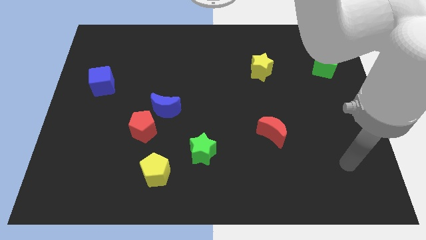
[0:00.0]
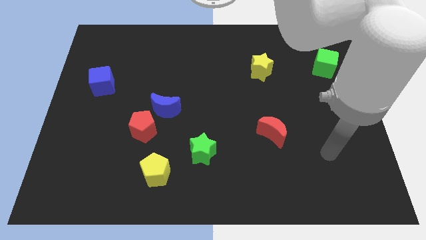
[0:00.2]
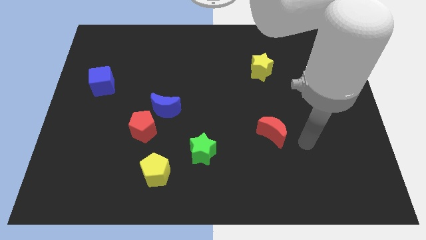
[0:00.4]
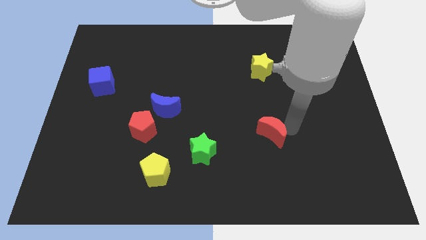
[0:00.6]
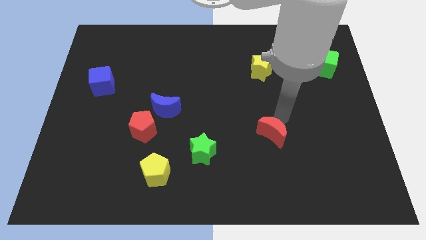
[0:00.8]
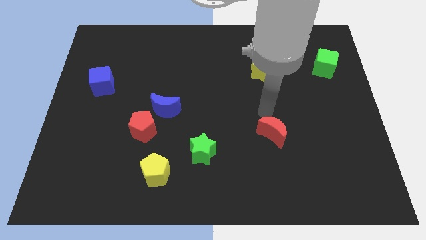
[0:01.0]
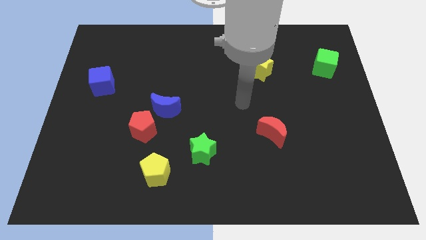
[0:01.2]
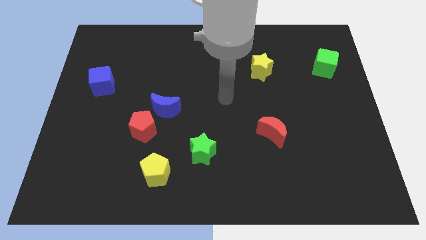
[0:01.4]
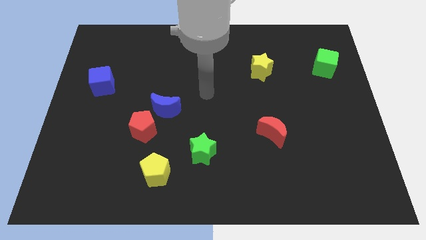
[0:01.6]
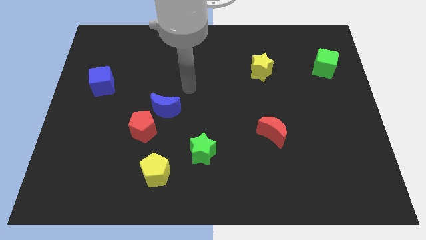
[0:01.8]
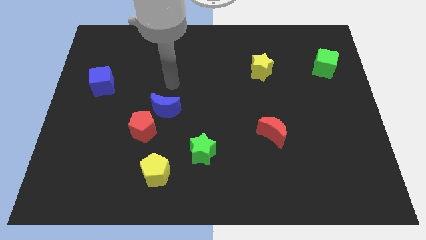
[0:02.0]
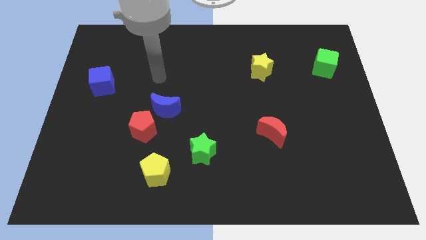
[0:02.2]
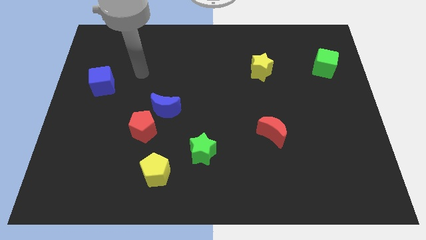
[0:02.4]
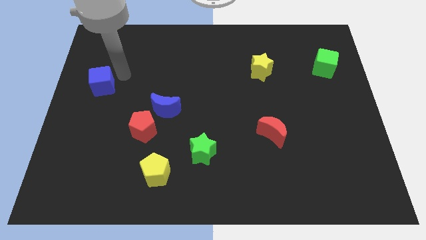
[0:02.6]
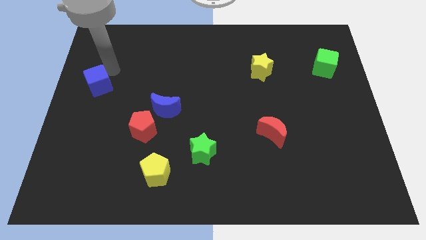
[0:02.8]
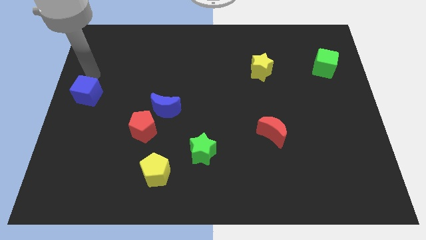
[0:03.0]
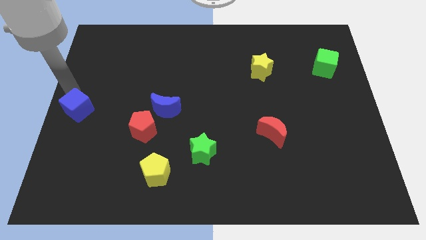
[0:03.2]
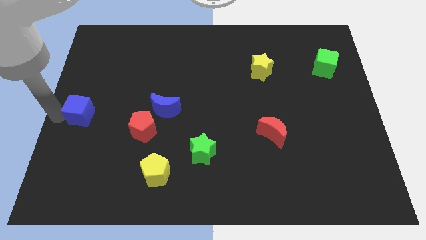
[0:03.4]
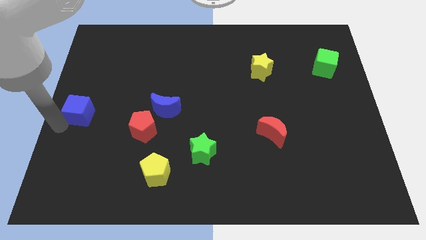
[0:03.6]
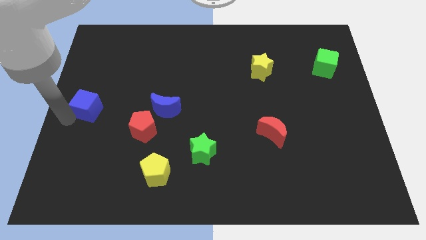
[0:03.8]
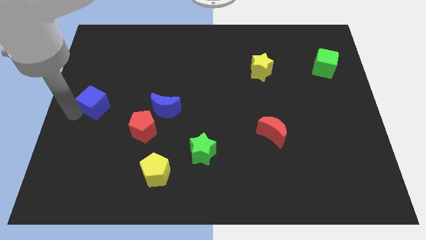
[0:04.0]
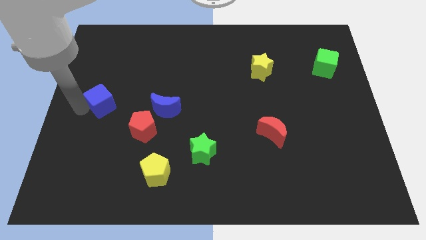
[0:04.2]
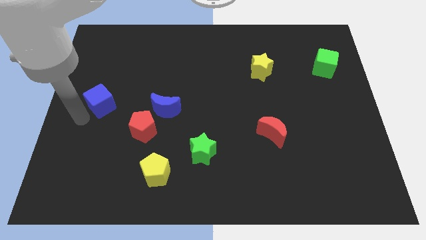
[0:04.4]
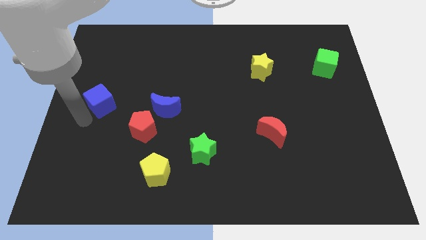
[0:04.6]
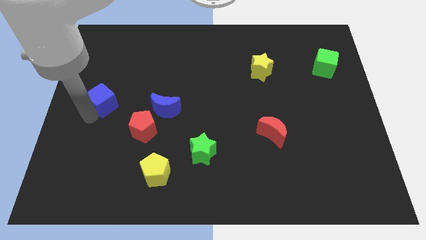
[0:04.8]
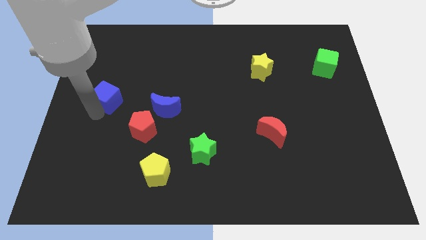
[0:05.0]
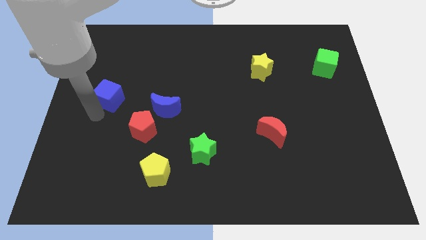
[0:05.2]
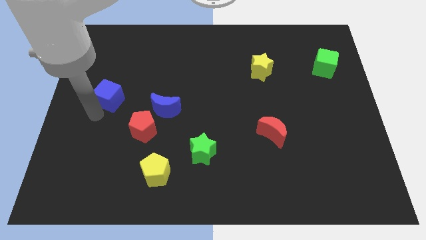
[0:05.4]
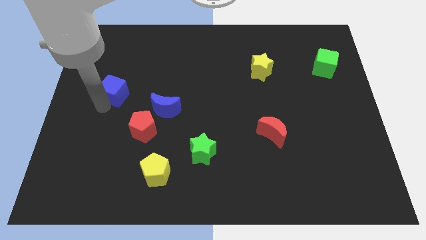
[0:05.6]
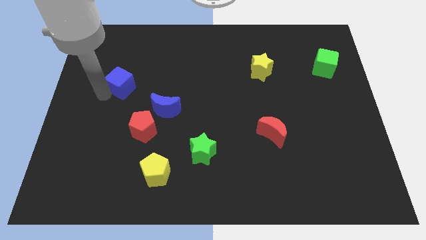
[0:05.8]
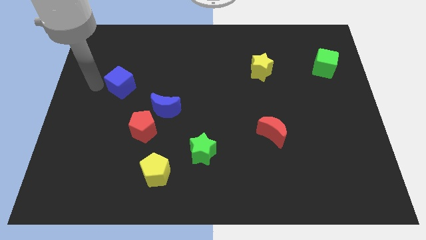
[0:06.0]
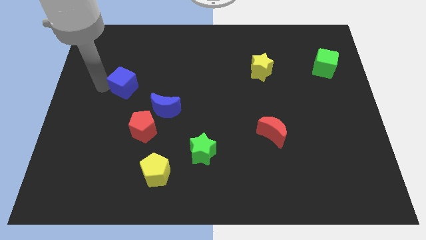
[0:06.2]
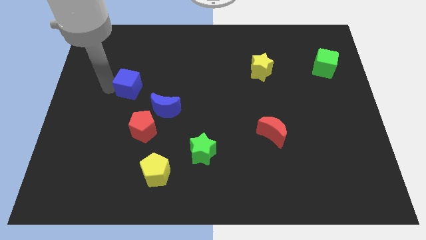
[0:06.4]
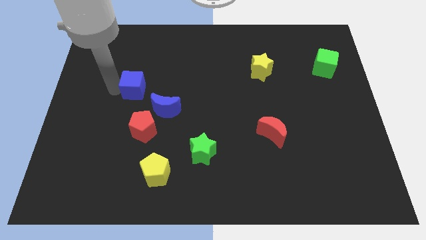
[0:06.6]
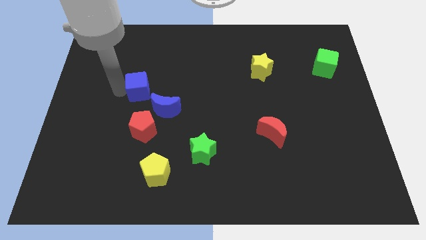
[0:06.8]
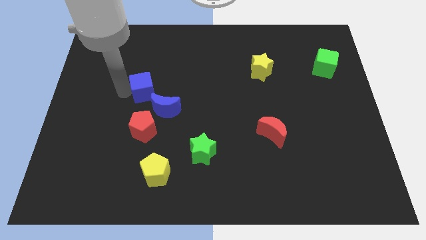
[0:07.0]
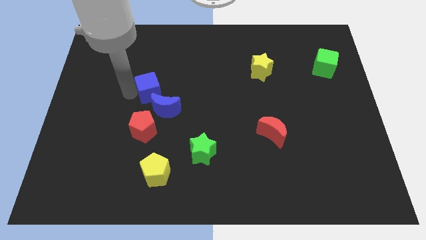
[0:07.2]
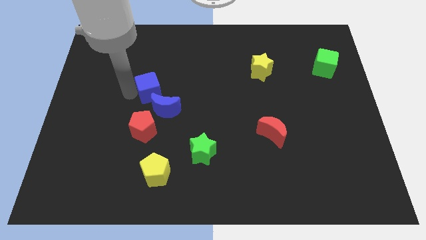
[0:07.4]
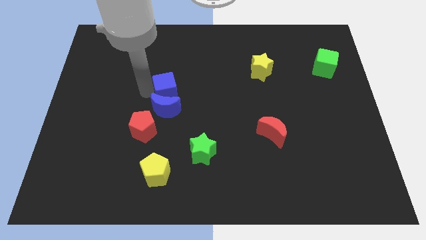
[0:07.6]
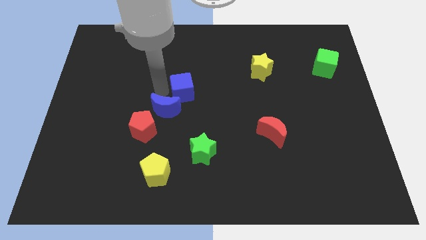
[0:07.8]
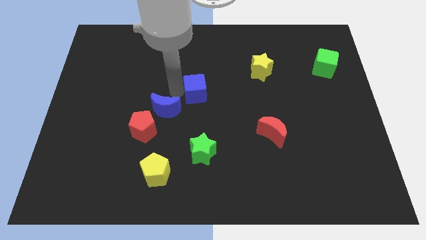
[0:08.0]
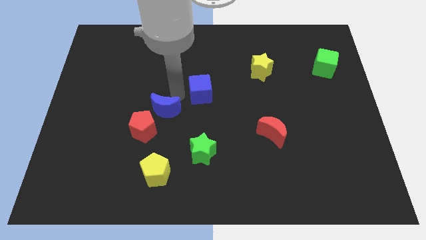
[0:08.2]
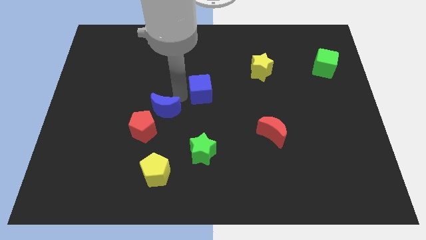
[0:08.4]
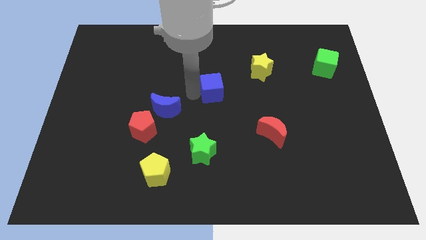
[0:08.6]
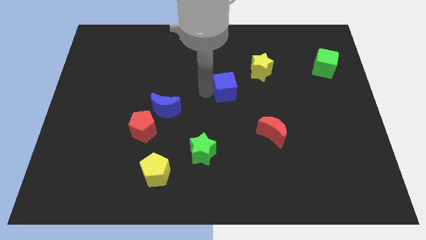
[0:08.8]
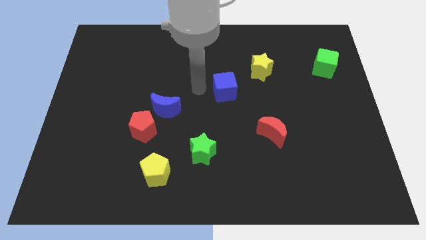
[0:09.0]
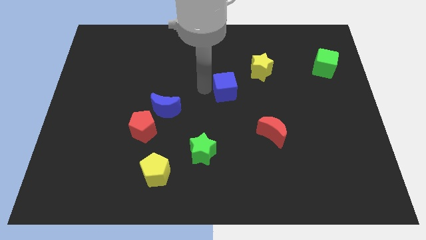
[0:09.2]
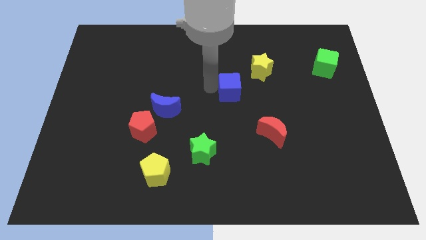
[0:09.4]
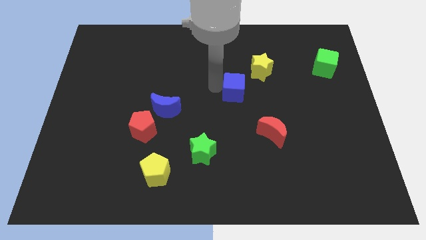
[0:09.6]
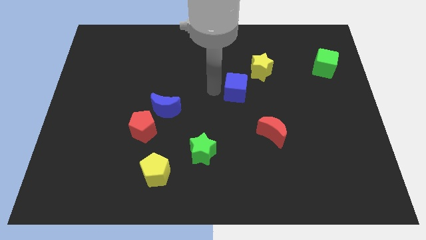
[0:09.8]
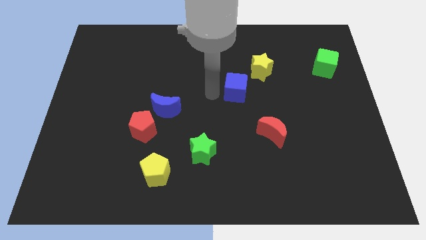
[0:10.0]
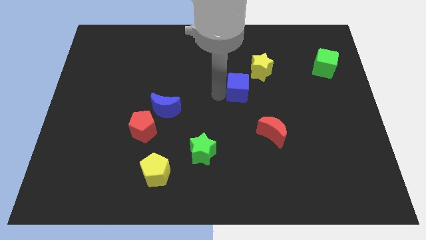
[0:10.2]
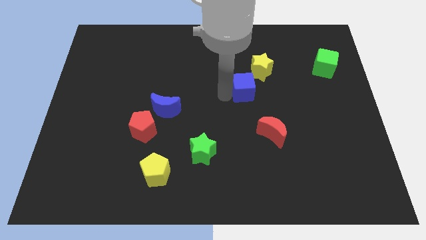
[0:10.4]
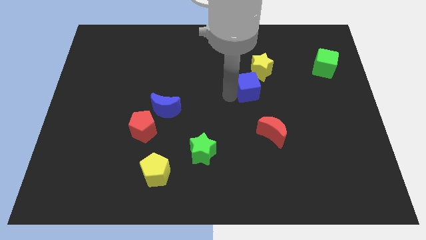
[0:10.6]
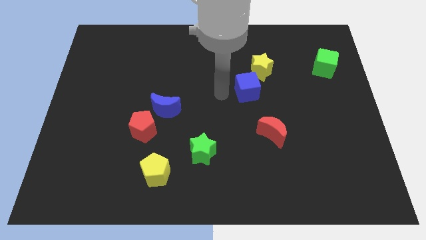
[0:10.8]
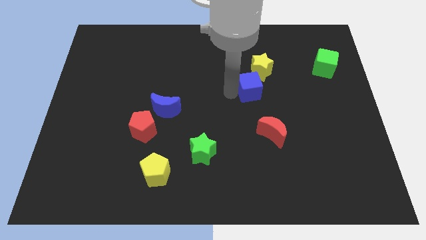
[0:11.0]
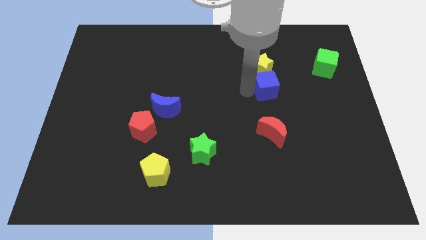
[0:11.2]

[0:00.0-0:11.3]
put the blue cube diagonally down and to the right of the yellow star

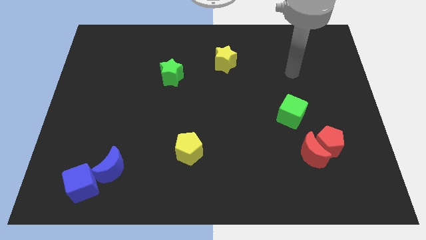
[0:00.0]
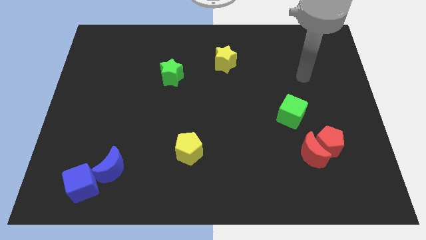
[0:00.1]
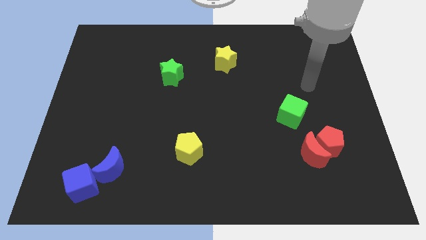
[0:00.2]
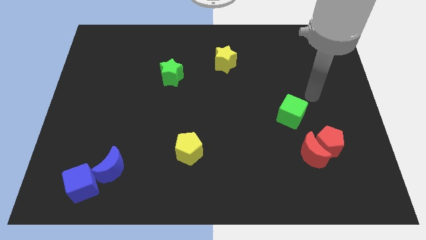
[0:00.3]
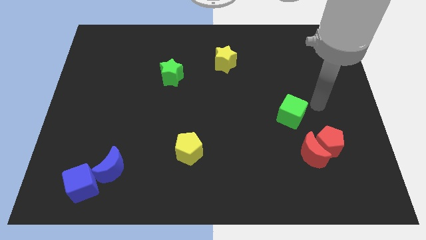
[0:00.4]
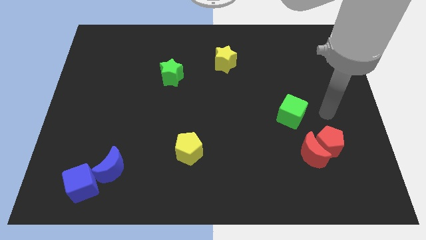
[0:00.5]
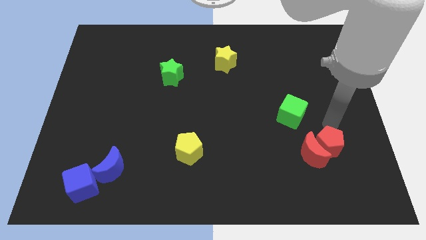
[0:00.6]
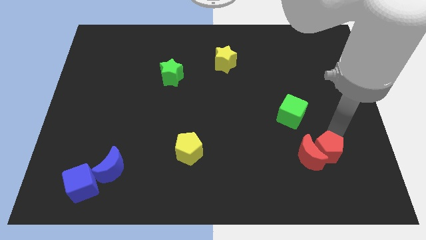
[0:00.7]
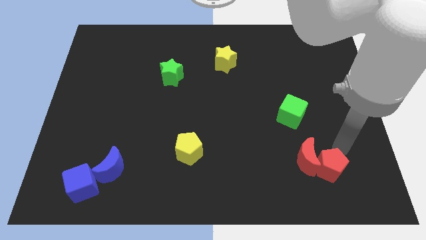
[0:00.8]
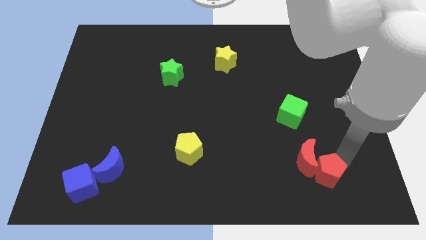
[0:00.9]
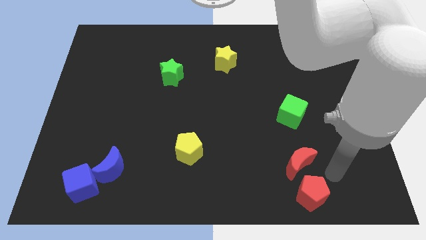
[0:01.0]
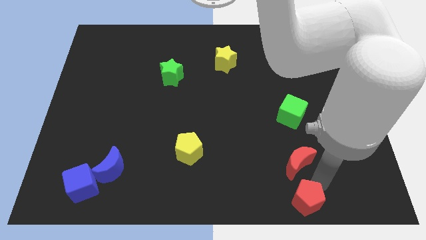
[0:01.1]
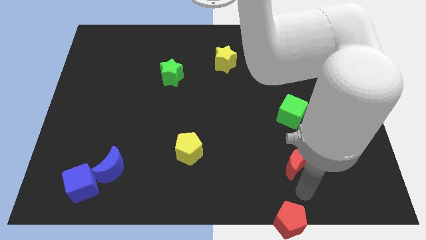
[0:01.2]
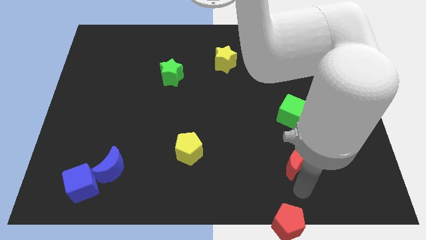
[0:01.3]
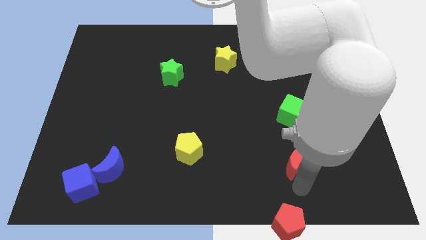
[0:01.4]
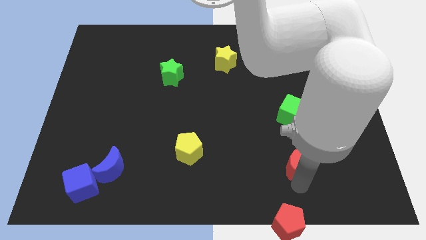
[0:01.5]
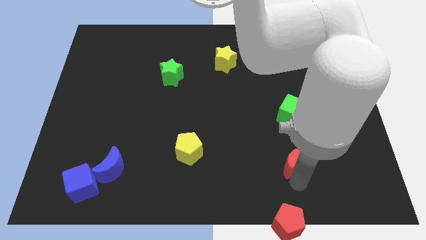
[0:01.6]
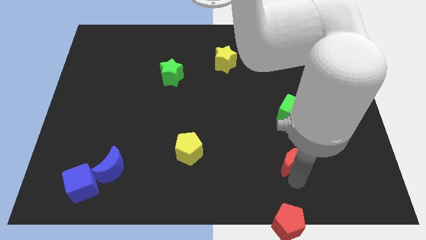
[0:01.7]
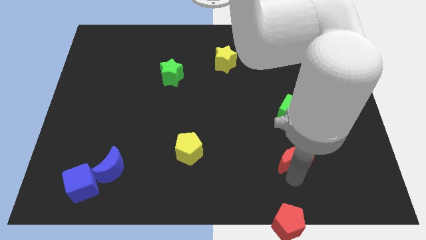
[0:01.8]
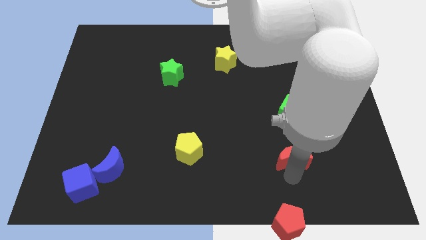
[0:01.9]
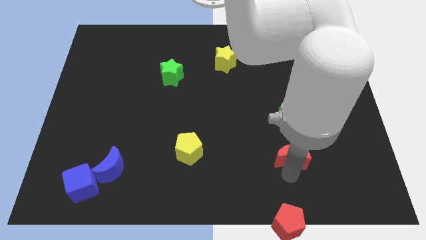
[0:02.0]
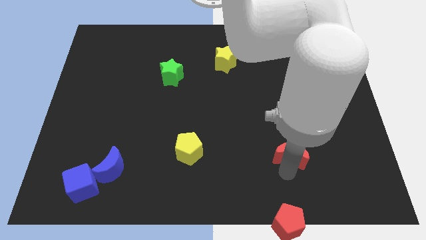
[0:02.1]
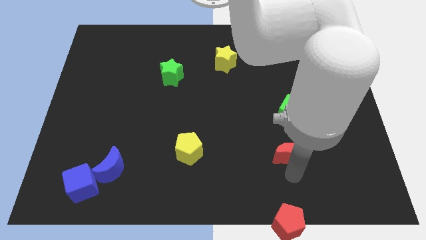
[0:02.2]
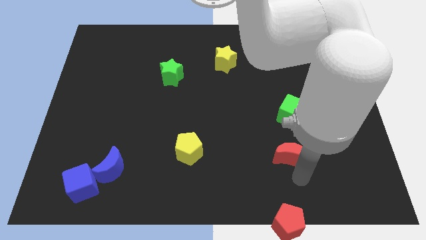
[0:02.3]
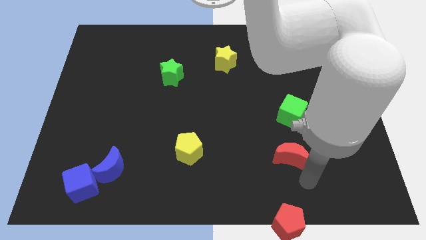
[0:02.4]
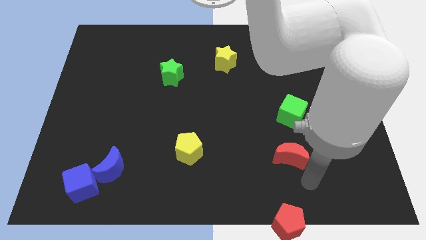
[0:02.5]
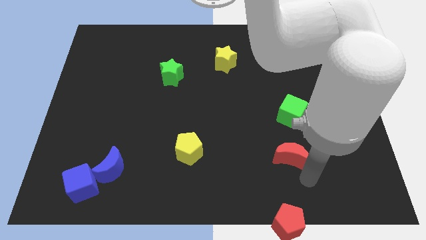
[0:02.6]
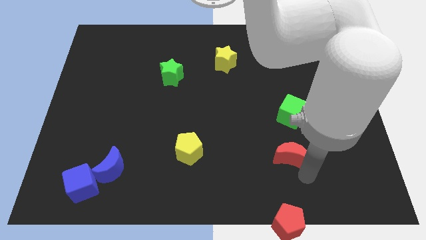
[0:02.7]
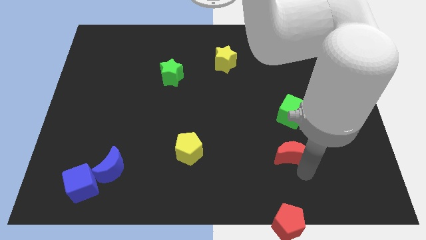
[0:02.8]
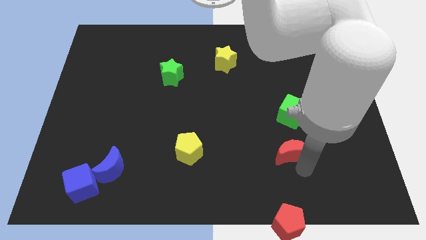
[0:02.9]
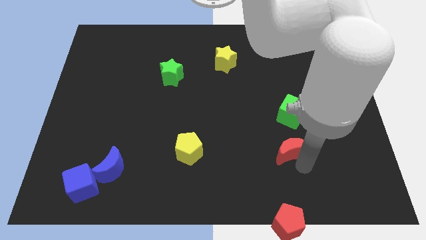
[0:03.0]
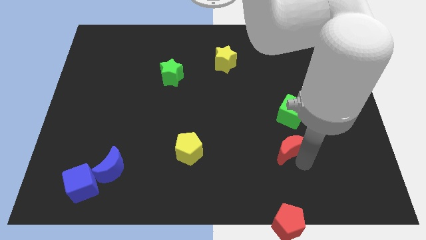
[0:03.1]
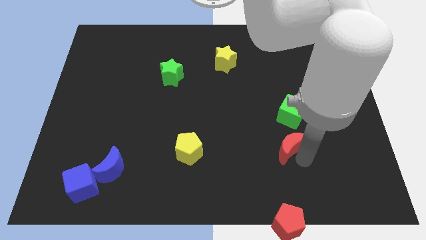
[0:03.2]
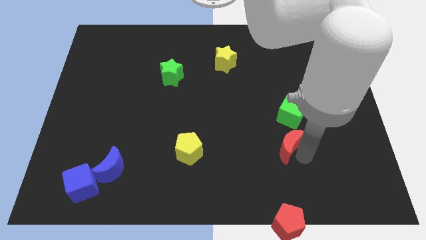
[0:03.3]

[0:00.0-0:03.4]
slide the red moon diagonally down and to the left of the green cube
